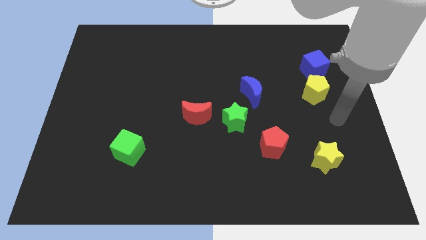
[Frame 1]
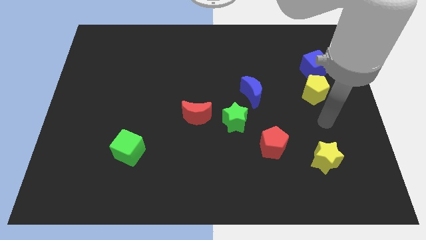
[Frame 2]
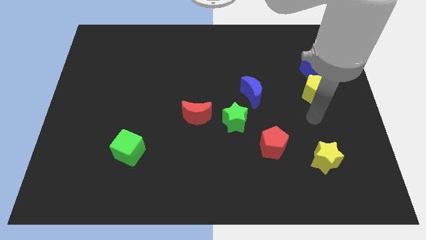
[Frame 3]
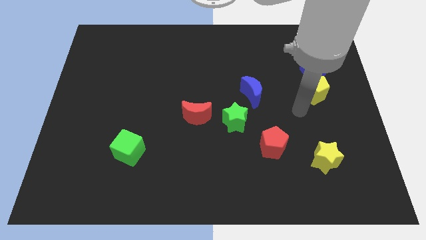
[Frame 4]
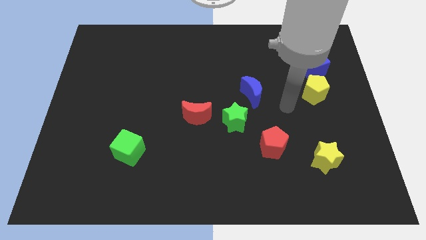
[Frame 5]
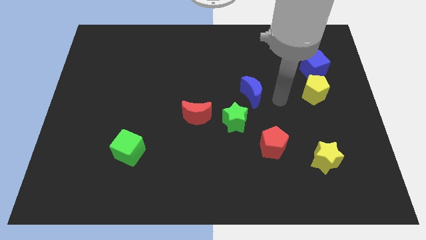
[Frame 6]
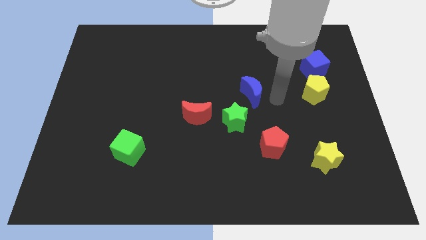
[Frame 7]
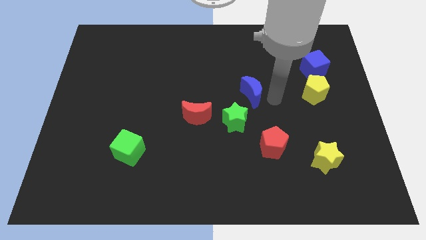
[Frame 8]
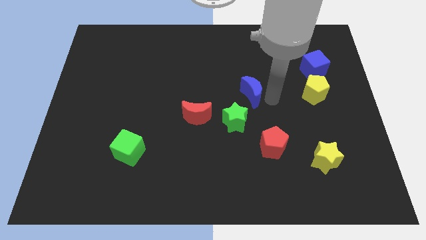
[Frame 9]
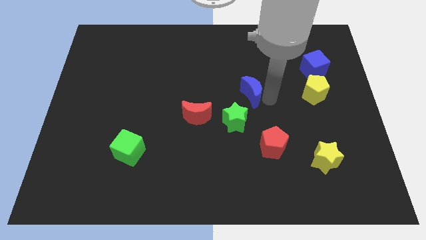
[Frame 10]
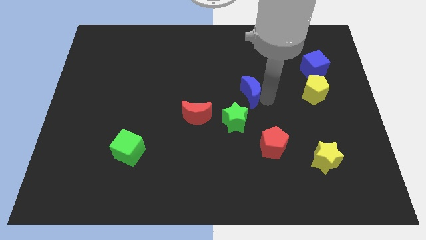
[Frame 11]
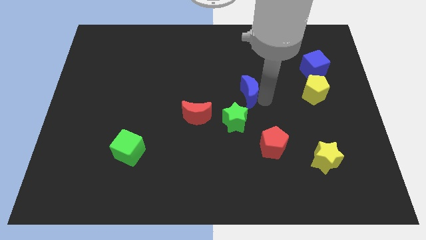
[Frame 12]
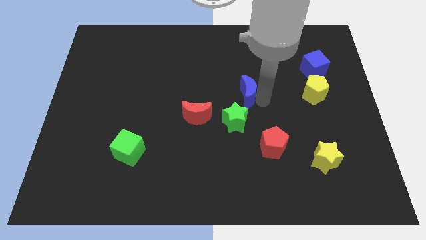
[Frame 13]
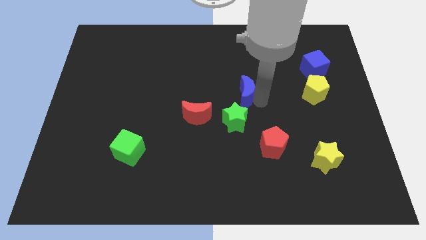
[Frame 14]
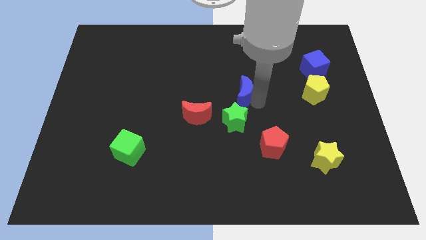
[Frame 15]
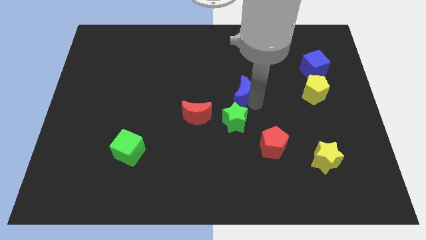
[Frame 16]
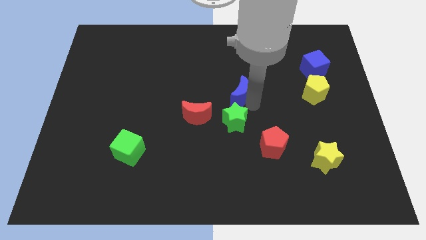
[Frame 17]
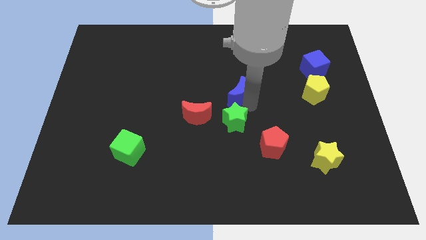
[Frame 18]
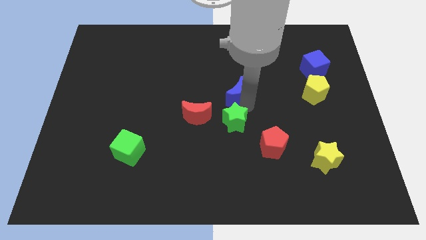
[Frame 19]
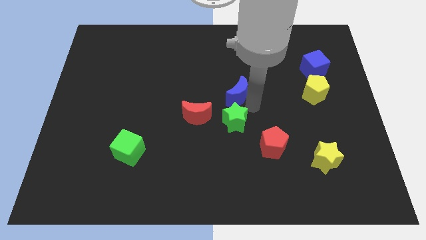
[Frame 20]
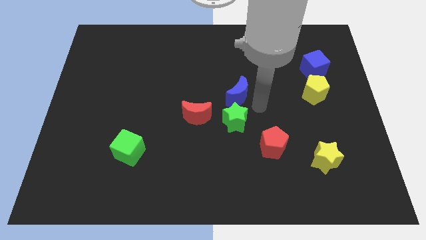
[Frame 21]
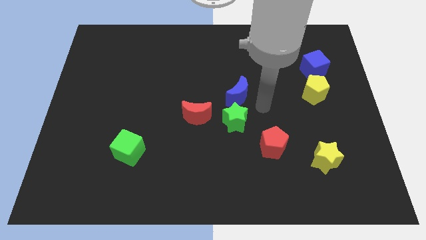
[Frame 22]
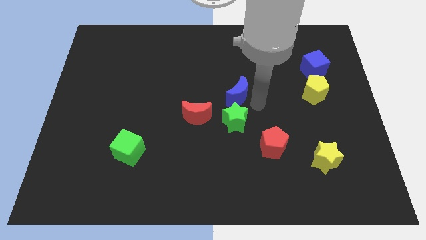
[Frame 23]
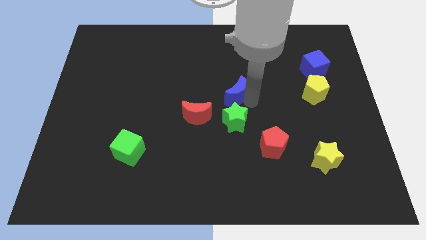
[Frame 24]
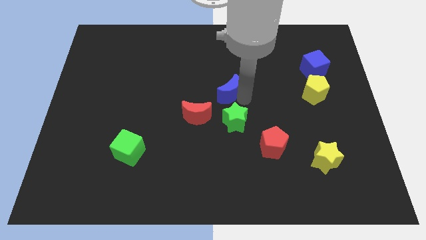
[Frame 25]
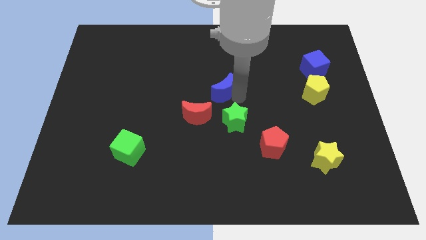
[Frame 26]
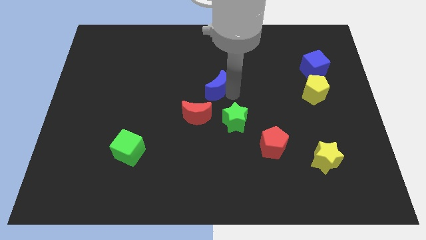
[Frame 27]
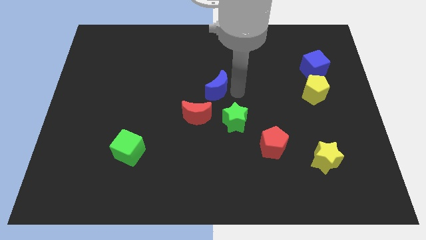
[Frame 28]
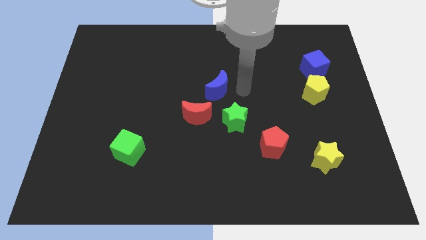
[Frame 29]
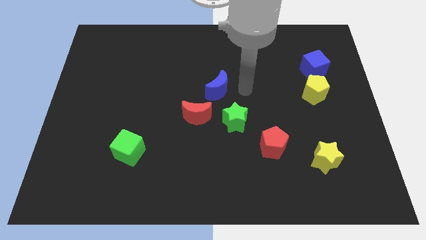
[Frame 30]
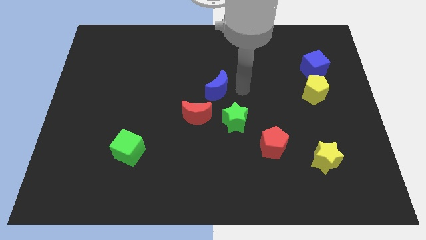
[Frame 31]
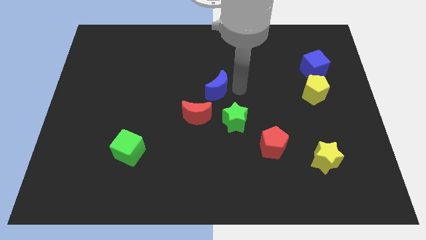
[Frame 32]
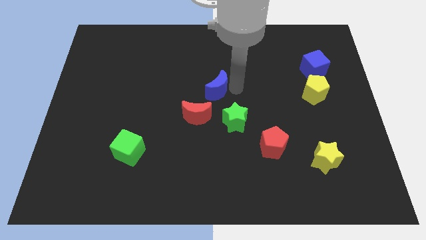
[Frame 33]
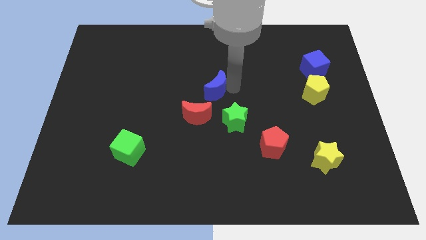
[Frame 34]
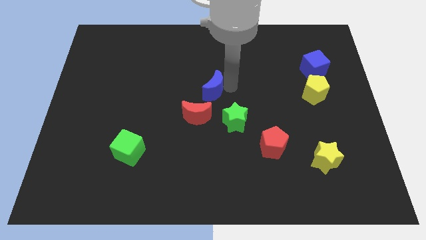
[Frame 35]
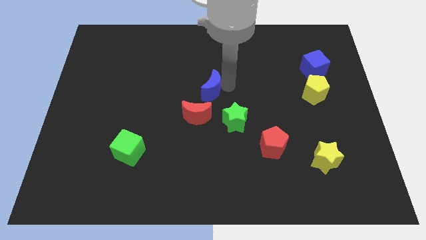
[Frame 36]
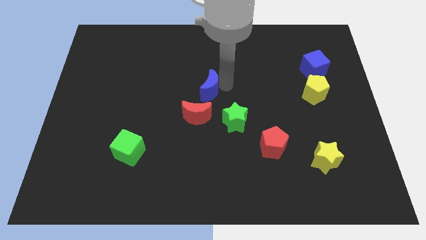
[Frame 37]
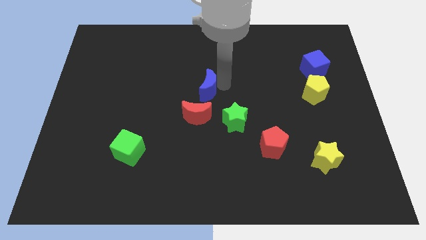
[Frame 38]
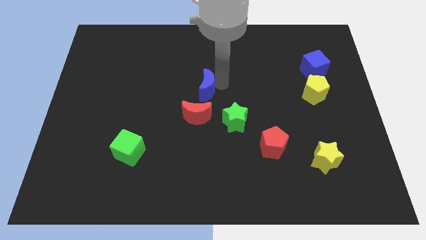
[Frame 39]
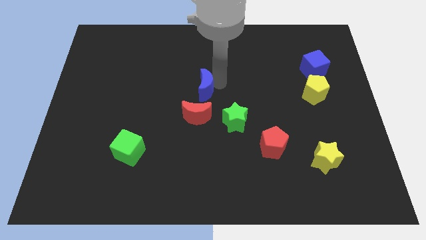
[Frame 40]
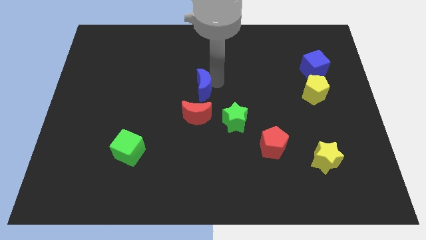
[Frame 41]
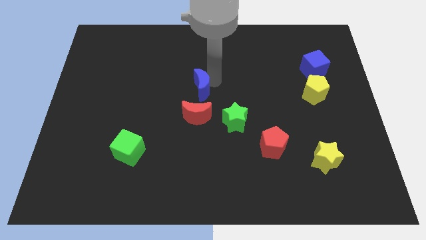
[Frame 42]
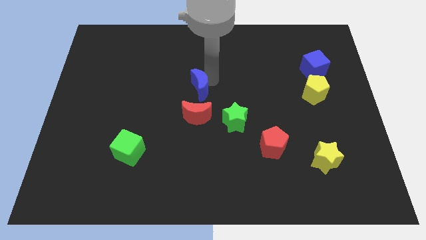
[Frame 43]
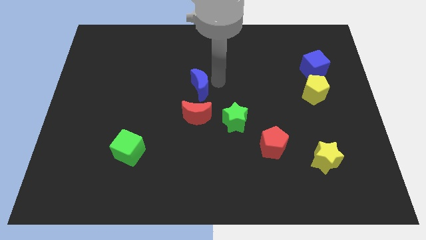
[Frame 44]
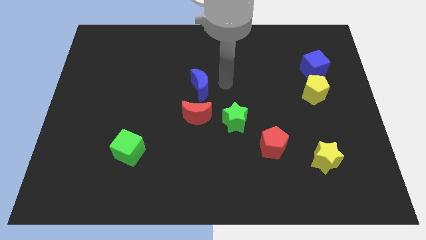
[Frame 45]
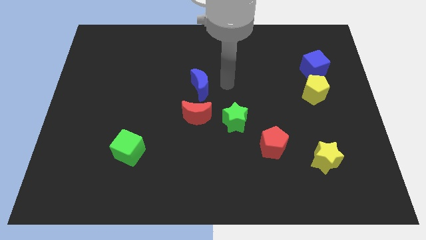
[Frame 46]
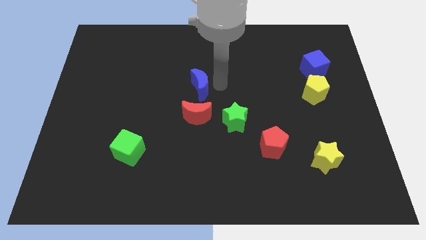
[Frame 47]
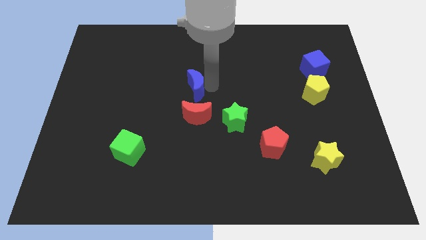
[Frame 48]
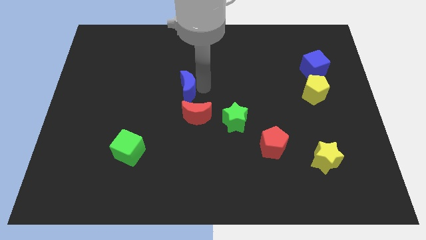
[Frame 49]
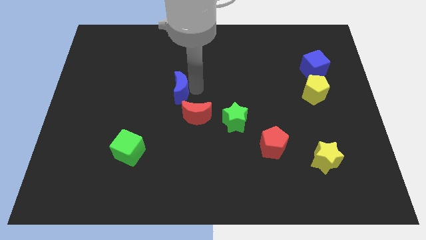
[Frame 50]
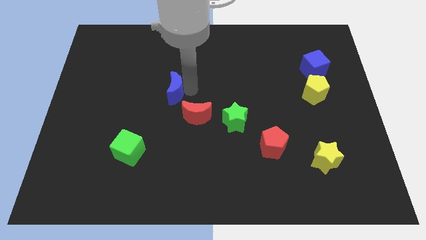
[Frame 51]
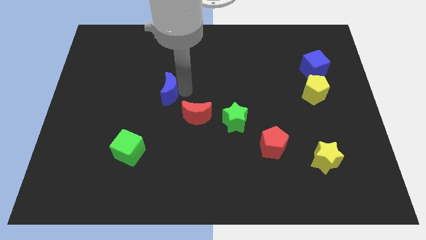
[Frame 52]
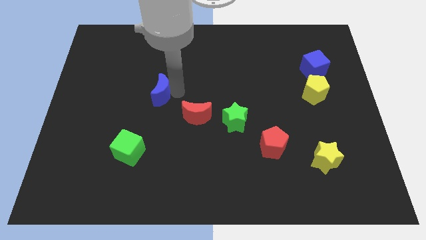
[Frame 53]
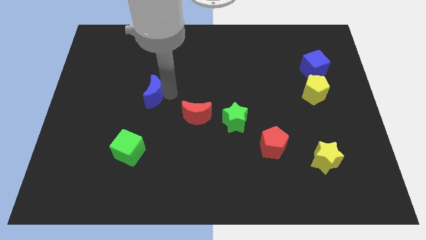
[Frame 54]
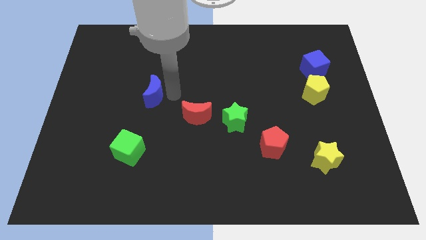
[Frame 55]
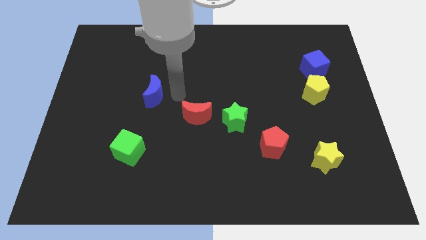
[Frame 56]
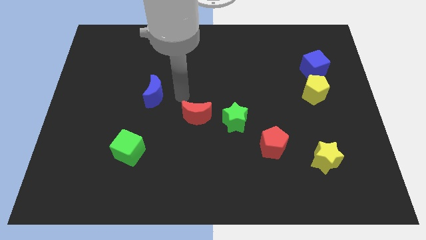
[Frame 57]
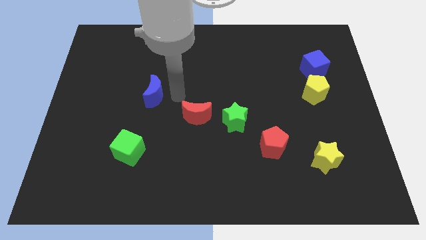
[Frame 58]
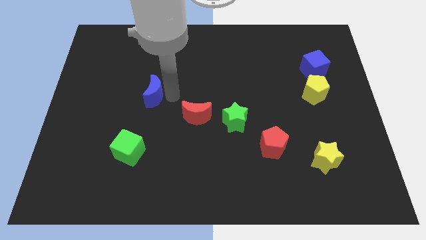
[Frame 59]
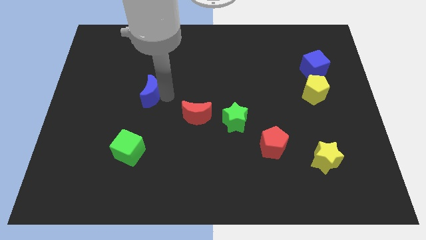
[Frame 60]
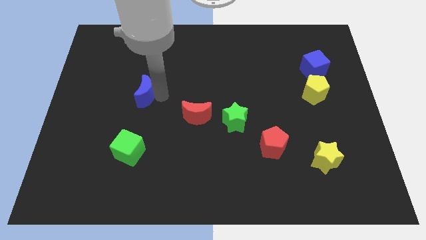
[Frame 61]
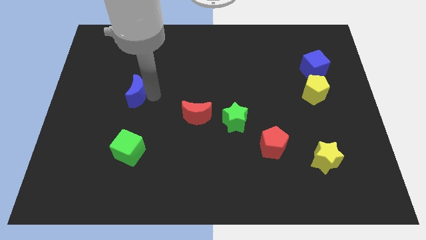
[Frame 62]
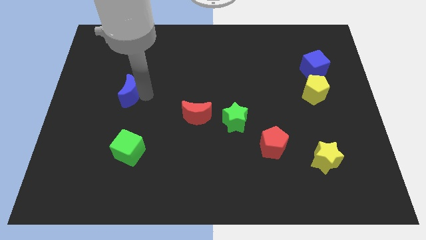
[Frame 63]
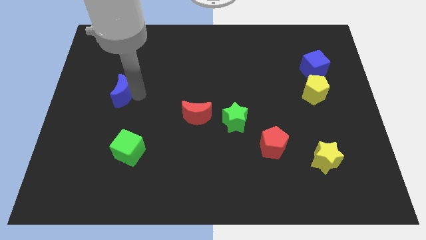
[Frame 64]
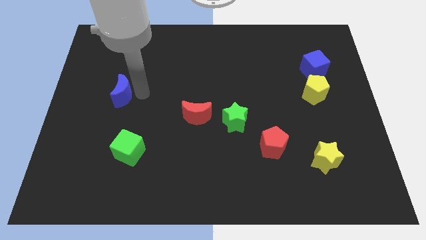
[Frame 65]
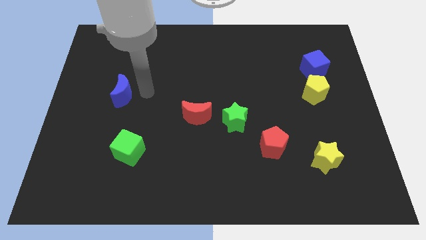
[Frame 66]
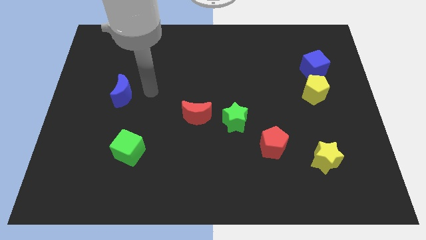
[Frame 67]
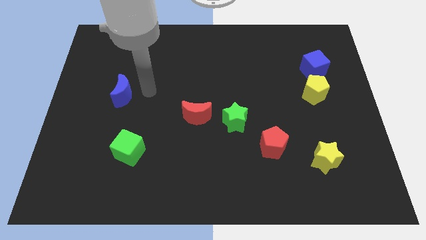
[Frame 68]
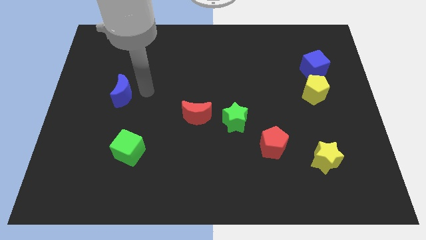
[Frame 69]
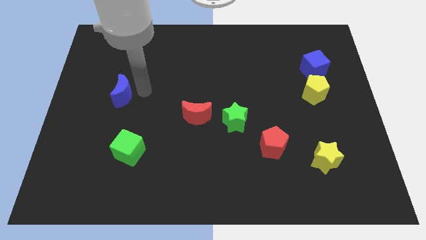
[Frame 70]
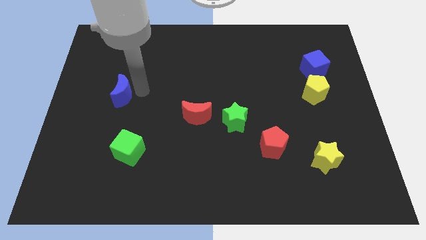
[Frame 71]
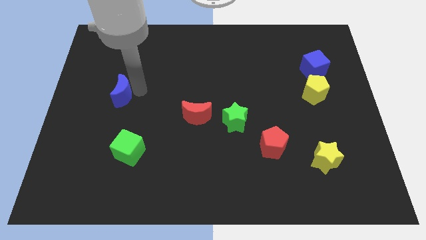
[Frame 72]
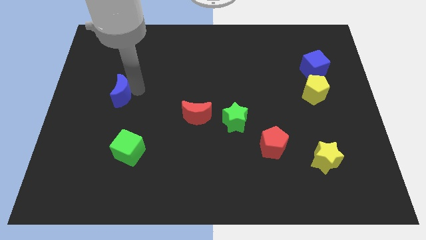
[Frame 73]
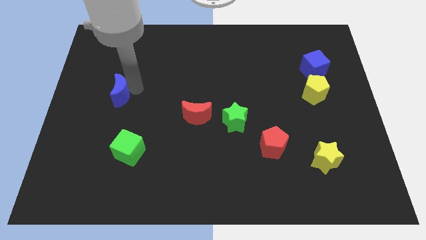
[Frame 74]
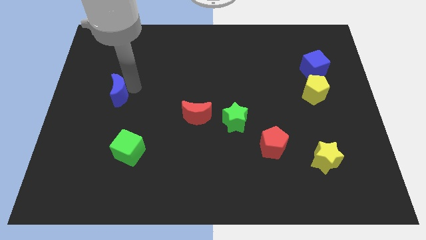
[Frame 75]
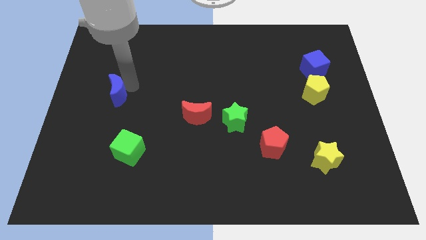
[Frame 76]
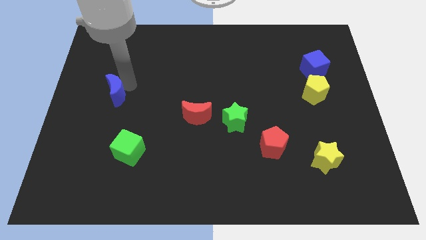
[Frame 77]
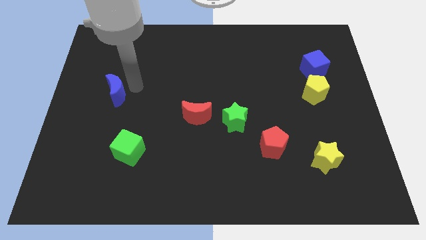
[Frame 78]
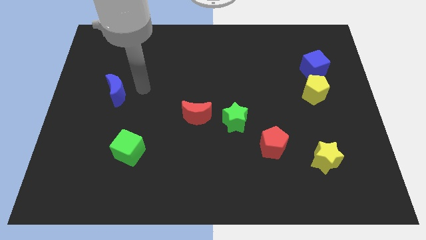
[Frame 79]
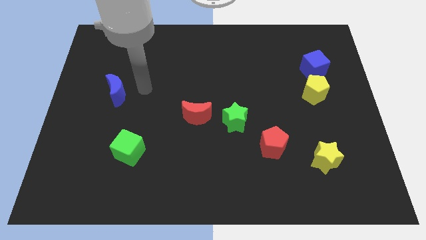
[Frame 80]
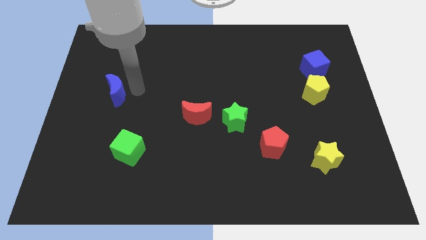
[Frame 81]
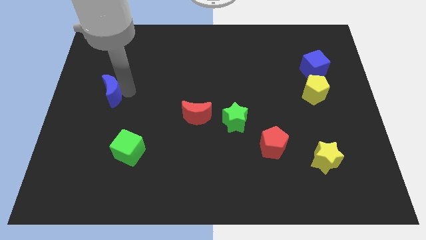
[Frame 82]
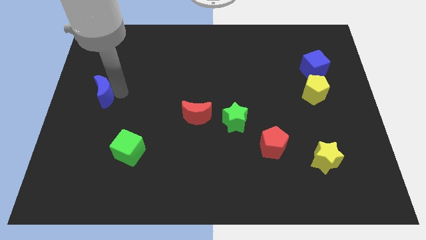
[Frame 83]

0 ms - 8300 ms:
move the blue moon to the left side of the board
